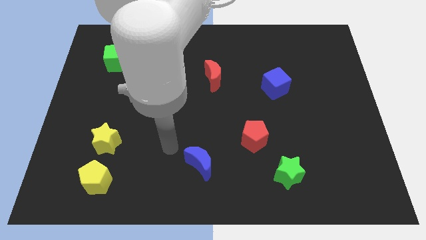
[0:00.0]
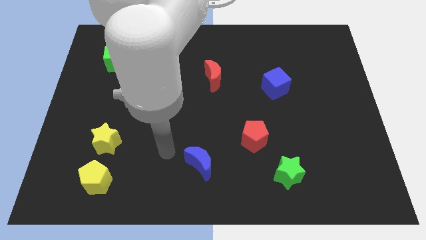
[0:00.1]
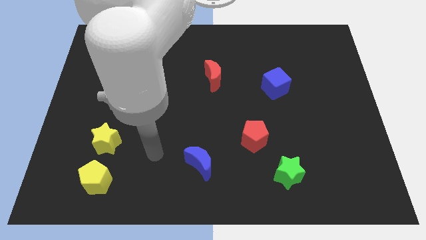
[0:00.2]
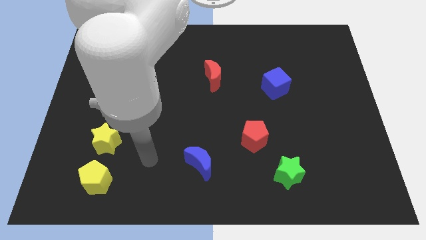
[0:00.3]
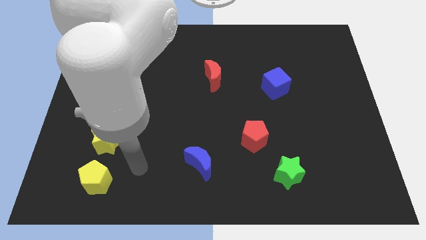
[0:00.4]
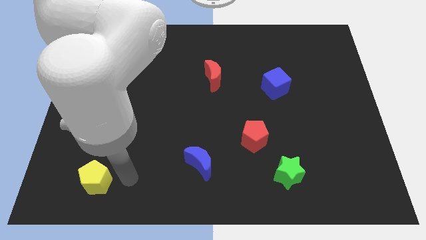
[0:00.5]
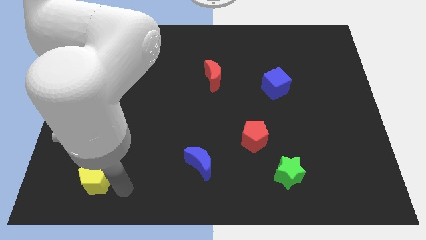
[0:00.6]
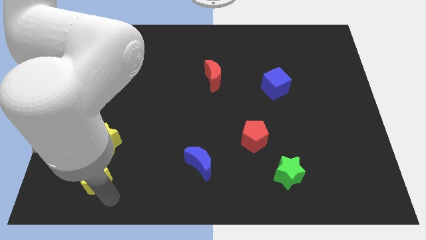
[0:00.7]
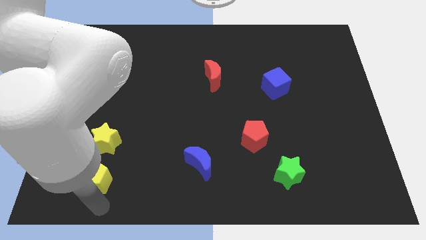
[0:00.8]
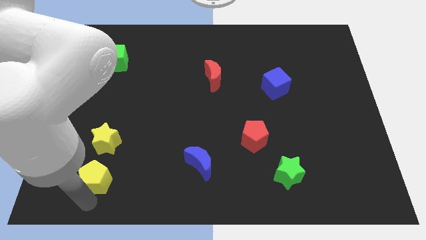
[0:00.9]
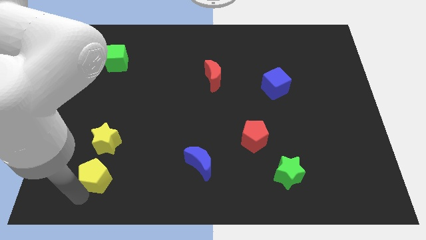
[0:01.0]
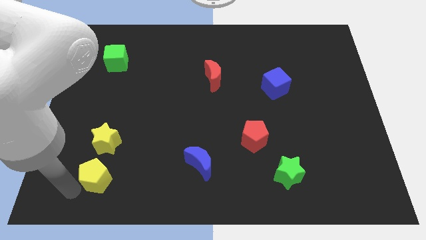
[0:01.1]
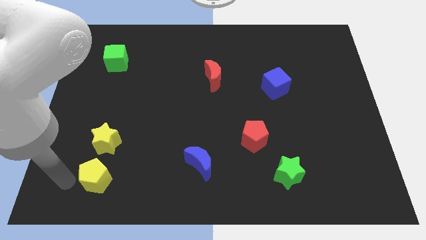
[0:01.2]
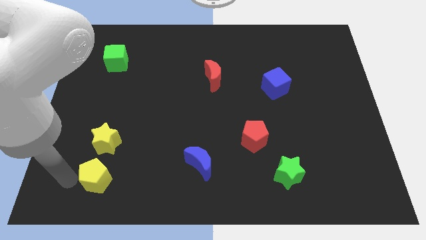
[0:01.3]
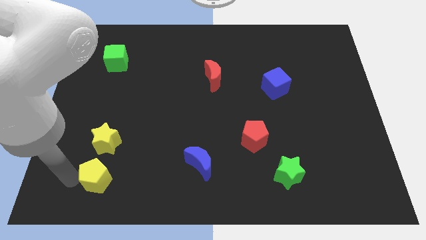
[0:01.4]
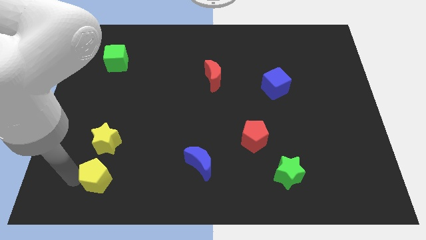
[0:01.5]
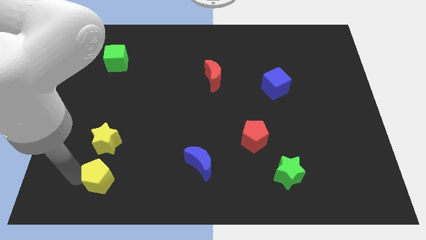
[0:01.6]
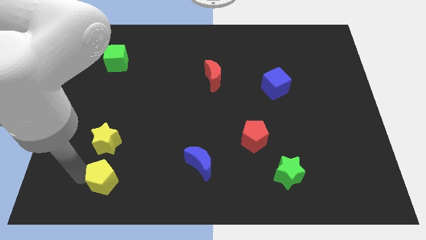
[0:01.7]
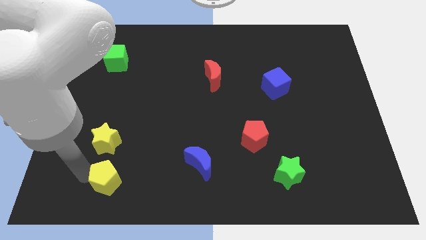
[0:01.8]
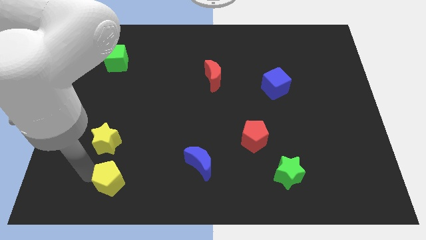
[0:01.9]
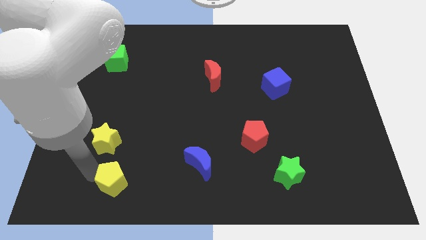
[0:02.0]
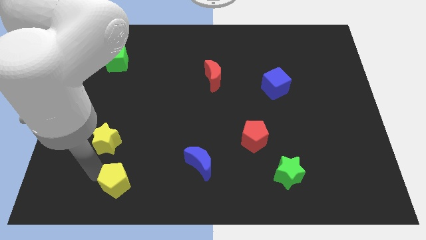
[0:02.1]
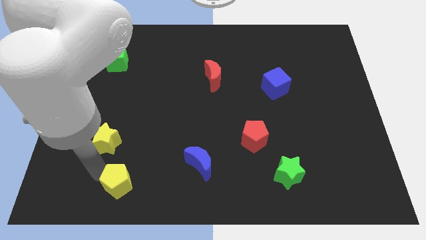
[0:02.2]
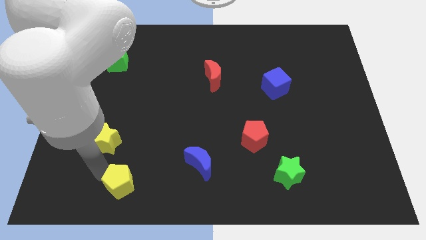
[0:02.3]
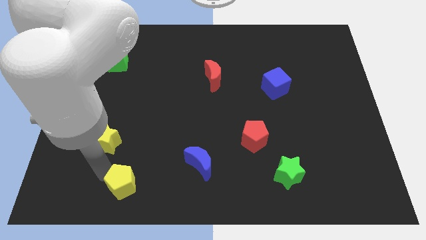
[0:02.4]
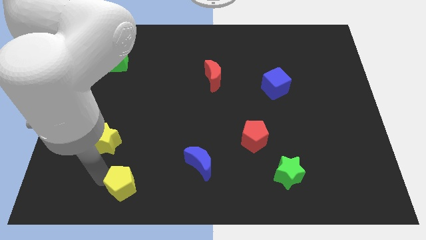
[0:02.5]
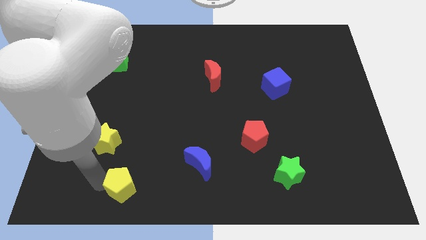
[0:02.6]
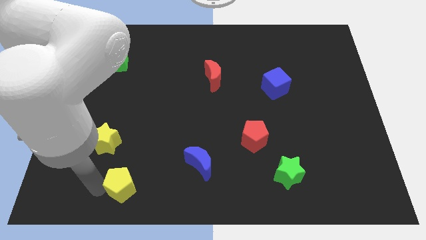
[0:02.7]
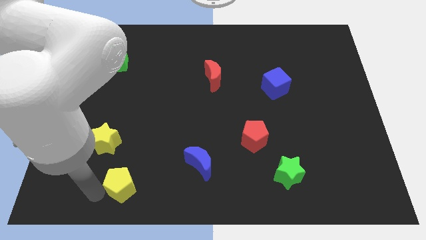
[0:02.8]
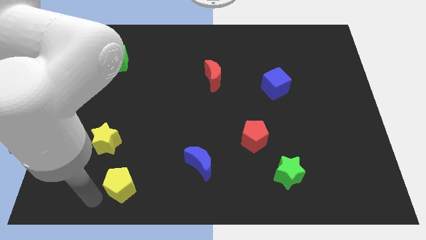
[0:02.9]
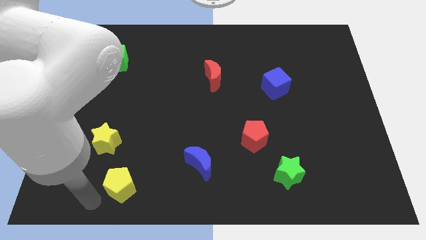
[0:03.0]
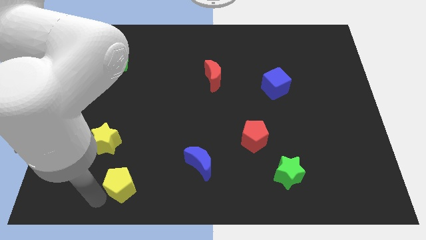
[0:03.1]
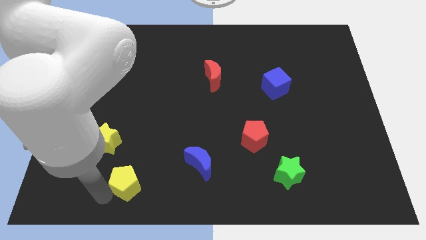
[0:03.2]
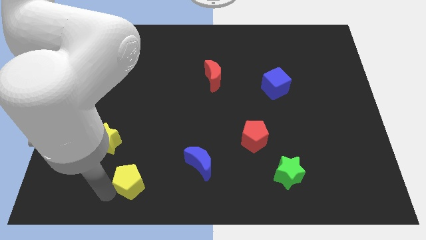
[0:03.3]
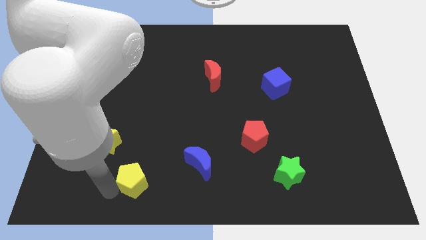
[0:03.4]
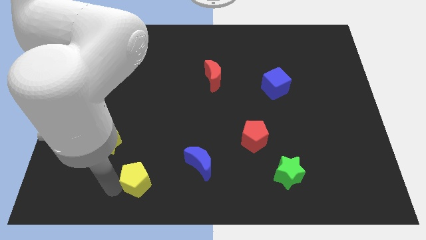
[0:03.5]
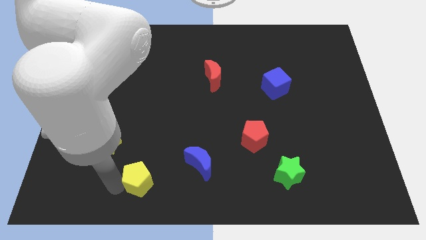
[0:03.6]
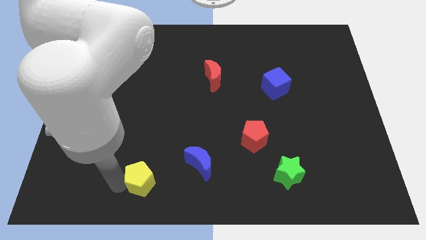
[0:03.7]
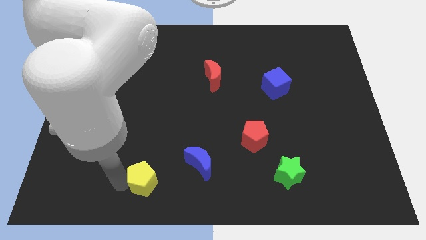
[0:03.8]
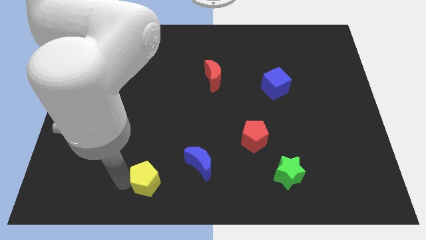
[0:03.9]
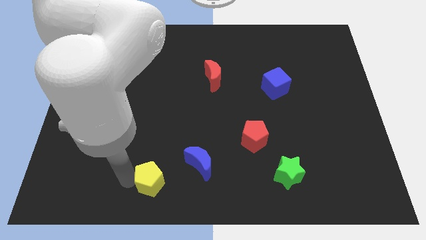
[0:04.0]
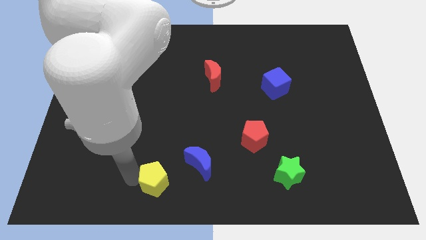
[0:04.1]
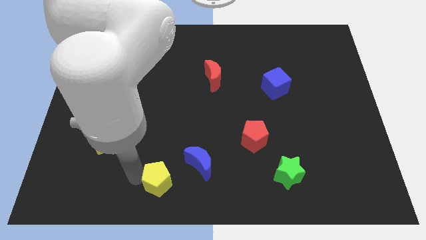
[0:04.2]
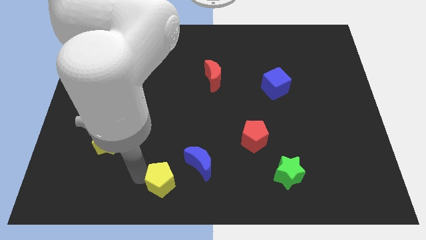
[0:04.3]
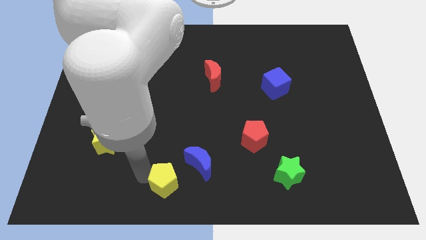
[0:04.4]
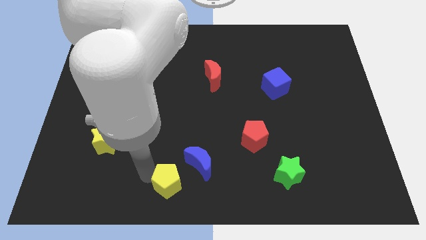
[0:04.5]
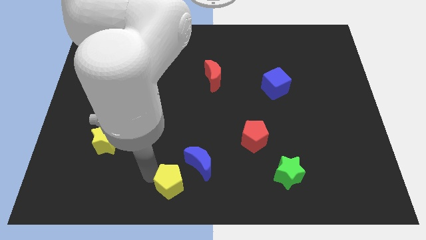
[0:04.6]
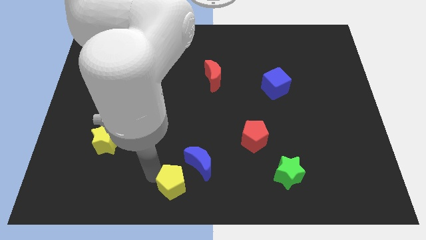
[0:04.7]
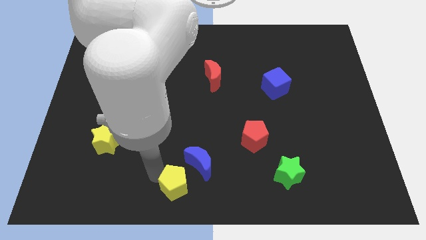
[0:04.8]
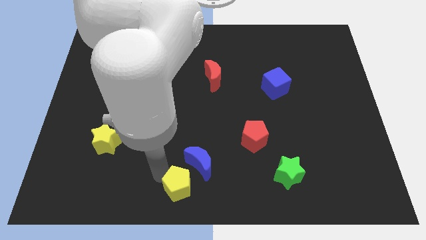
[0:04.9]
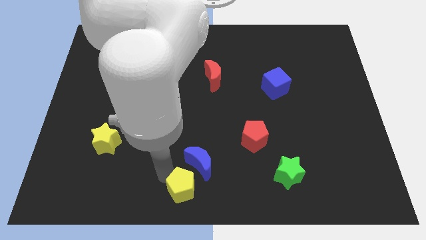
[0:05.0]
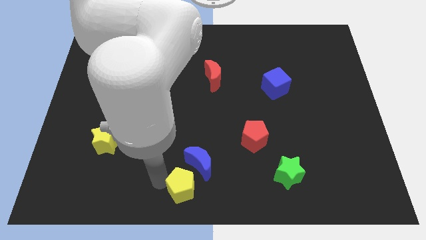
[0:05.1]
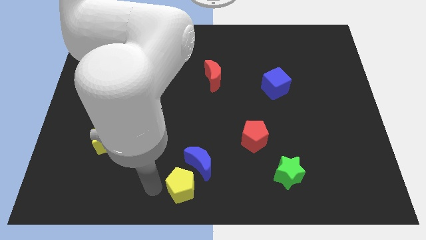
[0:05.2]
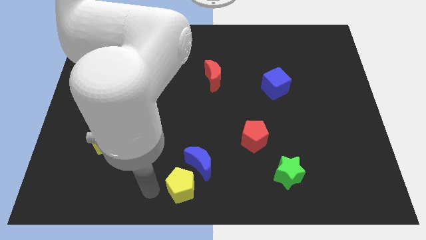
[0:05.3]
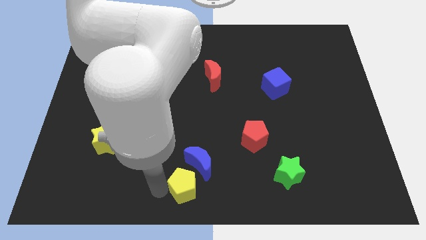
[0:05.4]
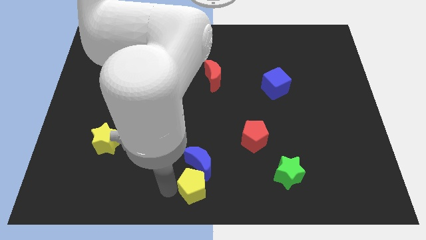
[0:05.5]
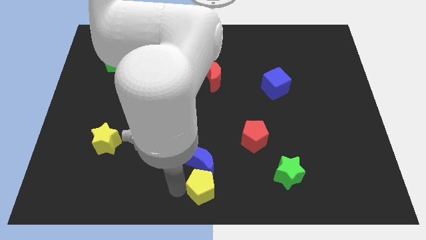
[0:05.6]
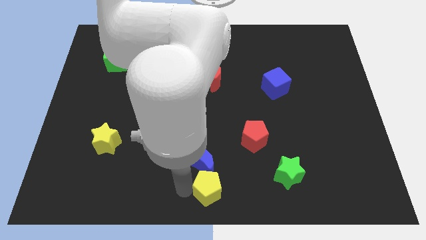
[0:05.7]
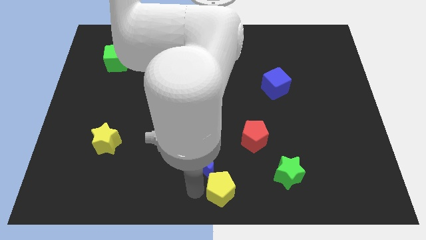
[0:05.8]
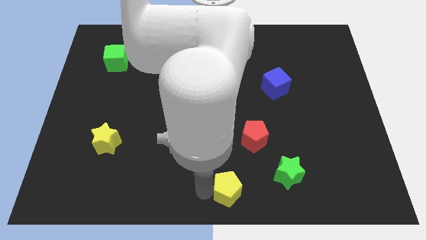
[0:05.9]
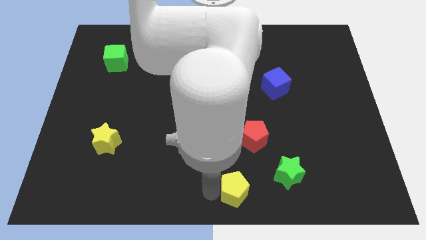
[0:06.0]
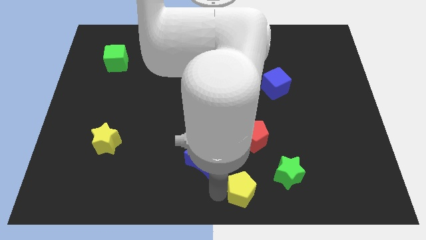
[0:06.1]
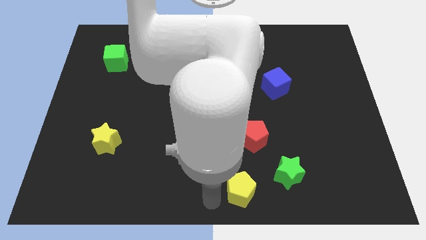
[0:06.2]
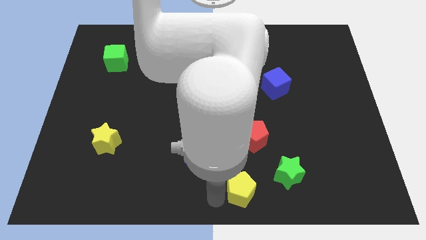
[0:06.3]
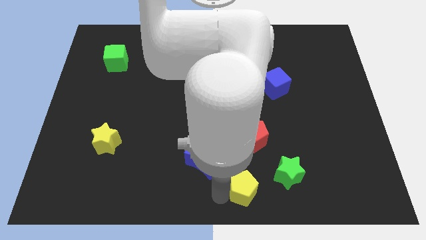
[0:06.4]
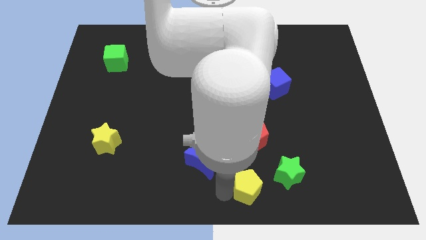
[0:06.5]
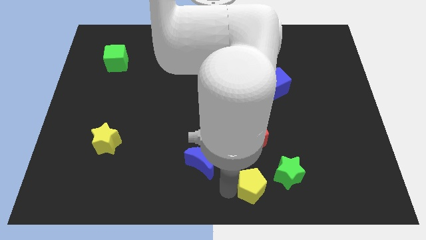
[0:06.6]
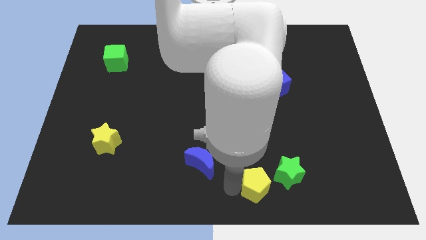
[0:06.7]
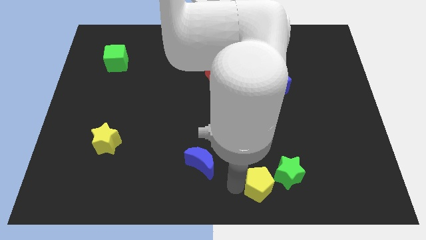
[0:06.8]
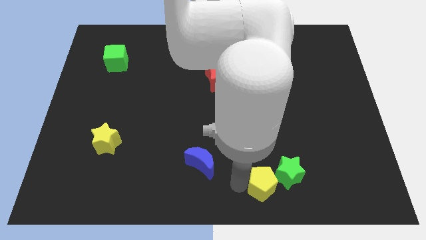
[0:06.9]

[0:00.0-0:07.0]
move the yellow pentagon to the green star
